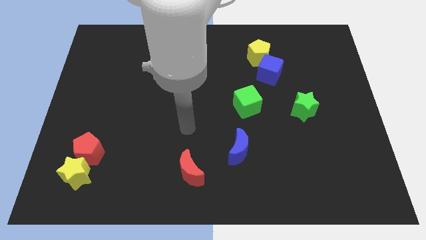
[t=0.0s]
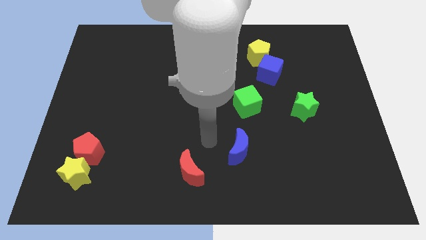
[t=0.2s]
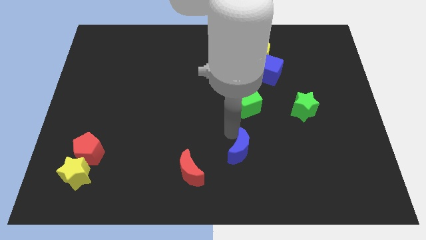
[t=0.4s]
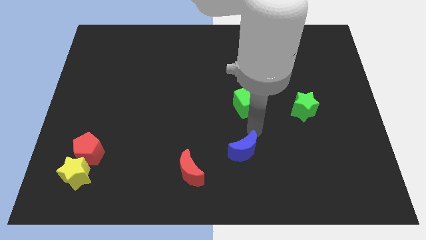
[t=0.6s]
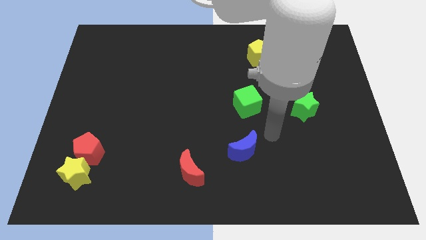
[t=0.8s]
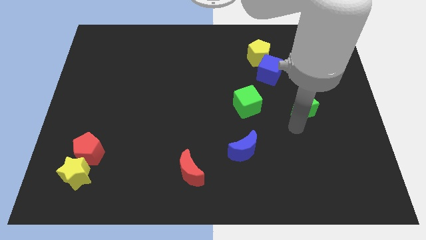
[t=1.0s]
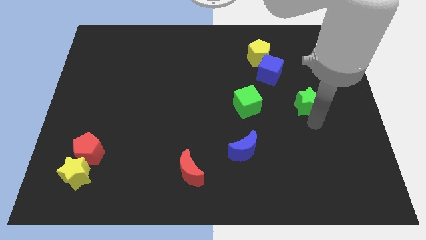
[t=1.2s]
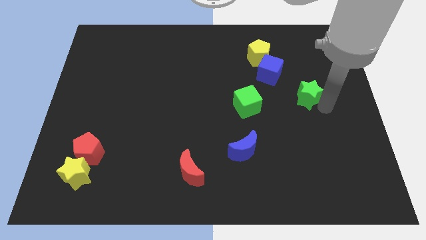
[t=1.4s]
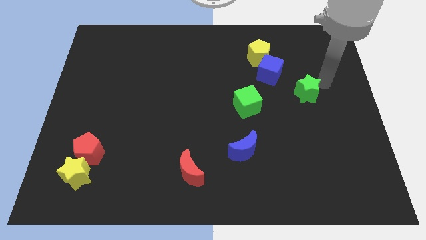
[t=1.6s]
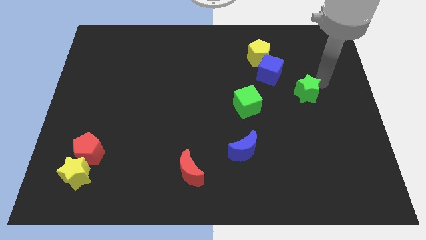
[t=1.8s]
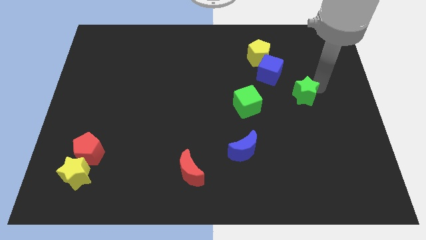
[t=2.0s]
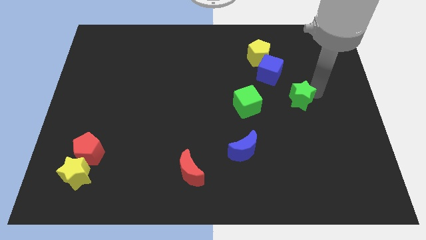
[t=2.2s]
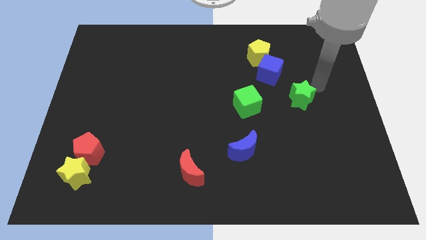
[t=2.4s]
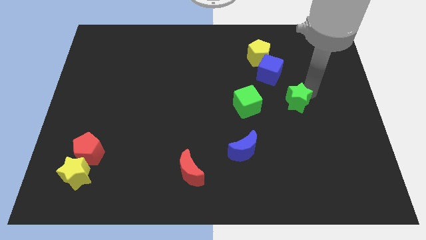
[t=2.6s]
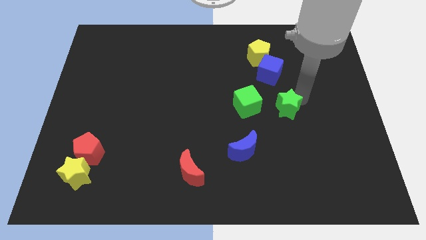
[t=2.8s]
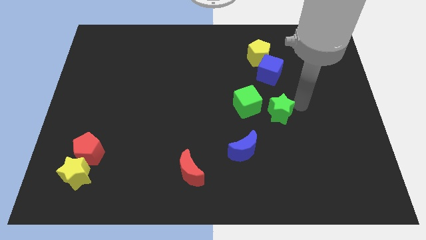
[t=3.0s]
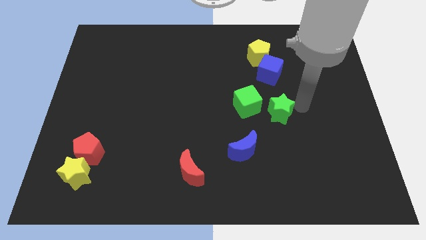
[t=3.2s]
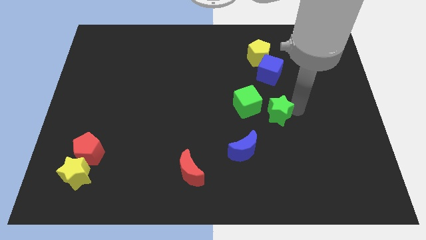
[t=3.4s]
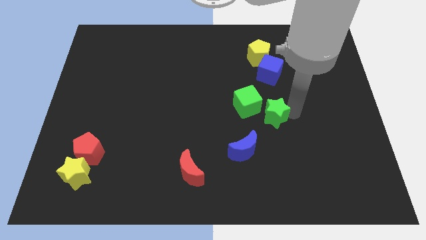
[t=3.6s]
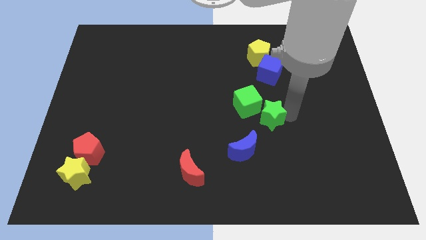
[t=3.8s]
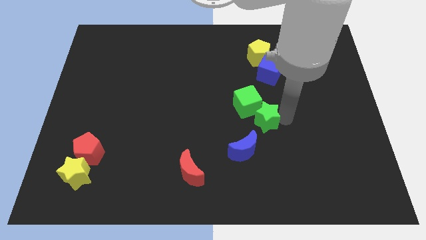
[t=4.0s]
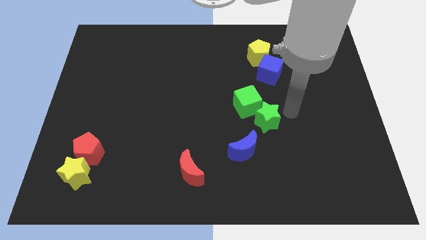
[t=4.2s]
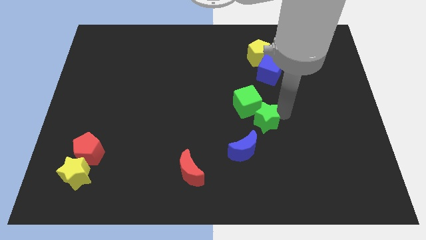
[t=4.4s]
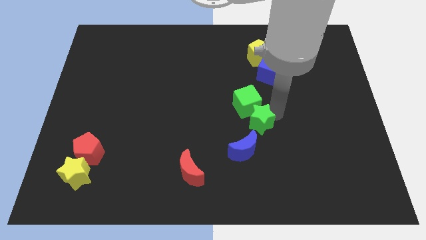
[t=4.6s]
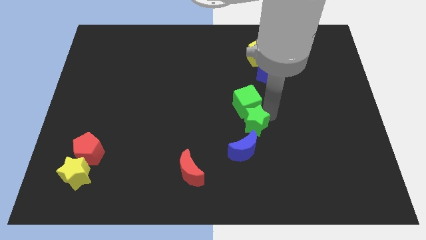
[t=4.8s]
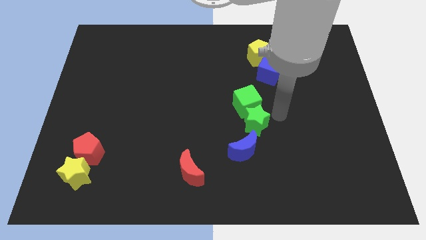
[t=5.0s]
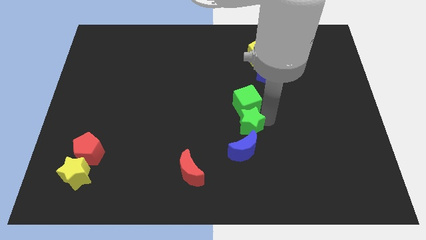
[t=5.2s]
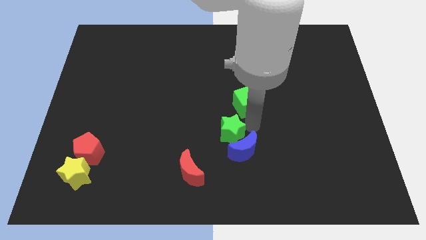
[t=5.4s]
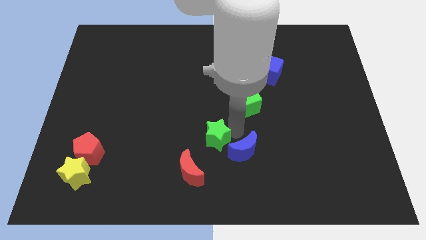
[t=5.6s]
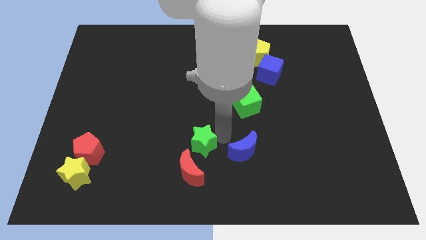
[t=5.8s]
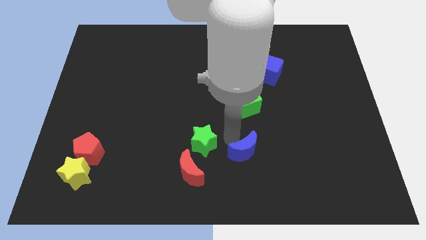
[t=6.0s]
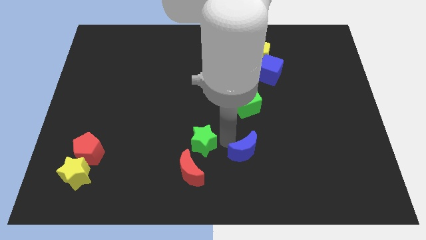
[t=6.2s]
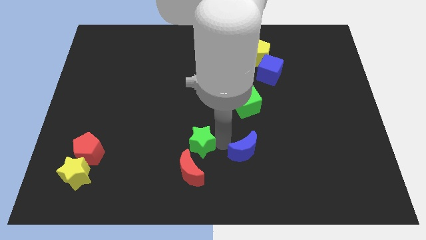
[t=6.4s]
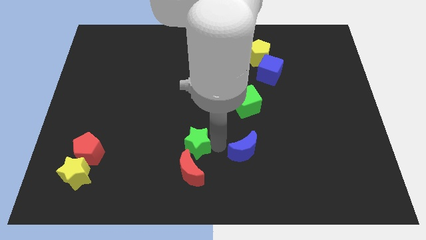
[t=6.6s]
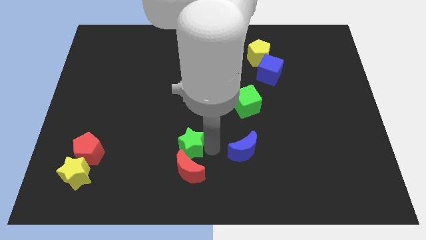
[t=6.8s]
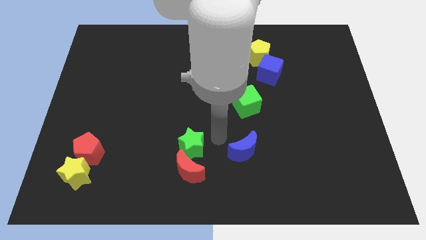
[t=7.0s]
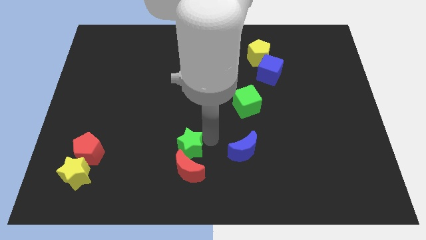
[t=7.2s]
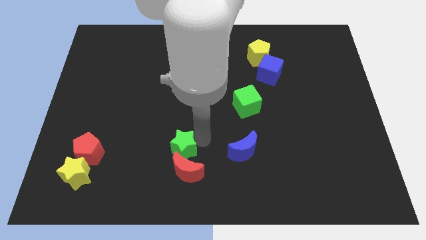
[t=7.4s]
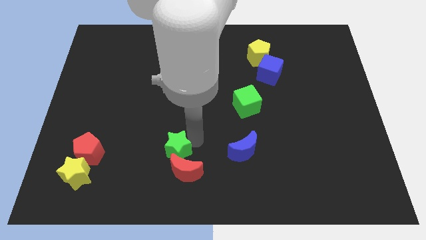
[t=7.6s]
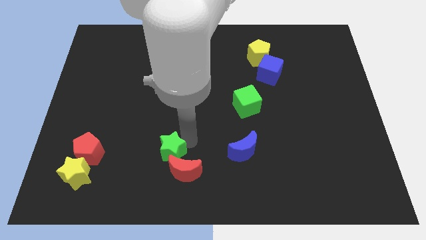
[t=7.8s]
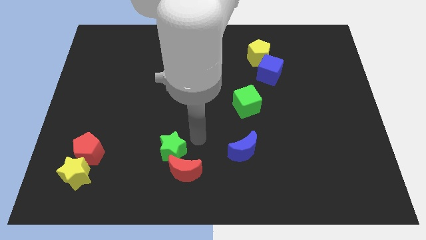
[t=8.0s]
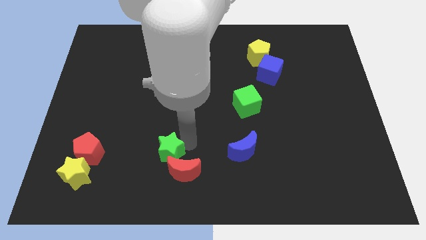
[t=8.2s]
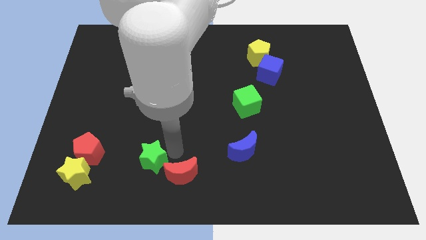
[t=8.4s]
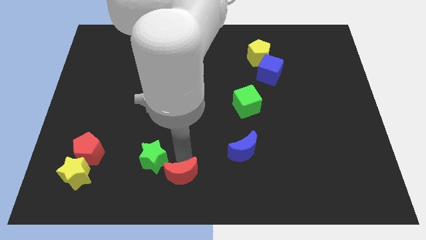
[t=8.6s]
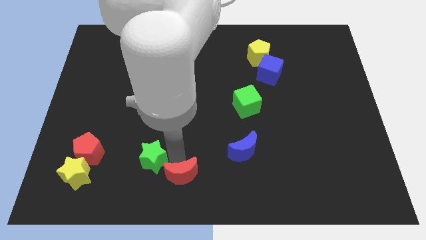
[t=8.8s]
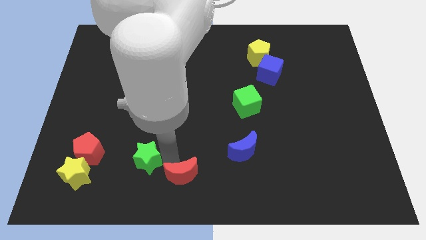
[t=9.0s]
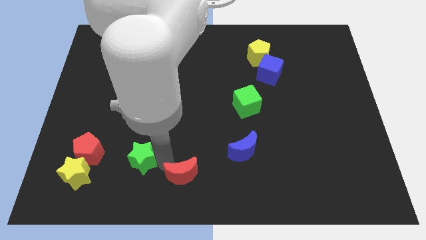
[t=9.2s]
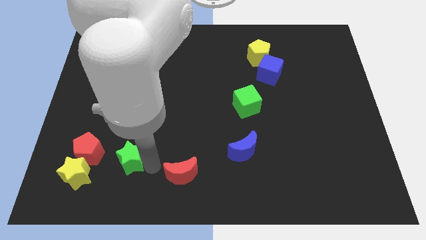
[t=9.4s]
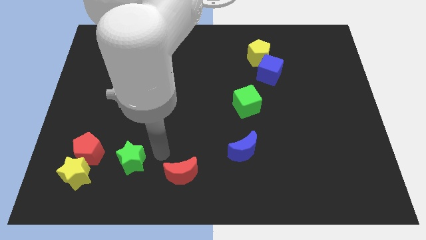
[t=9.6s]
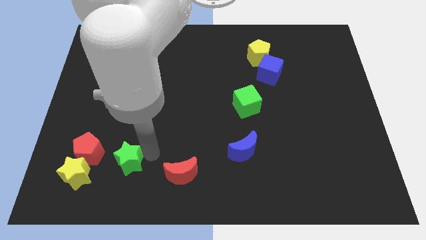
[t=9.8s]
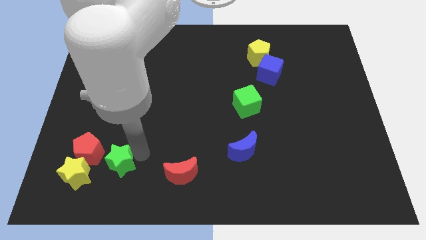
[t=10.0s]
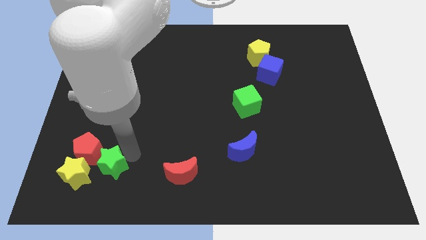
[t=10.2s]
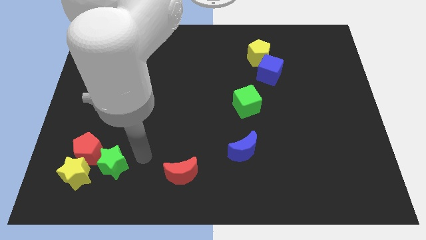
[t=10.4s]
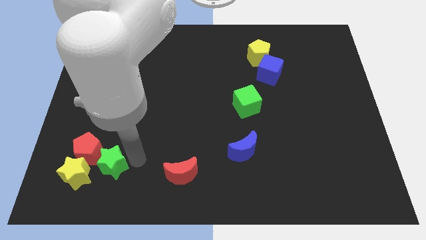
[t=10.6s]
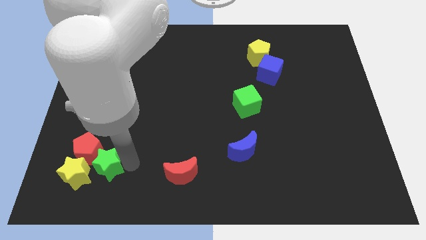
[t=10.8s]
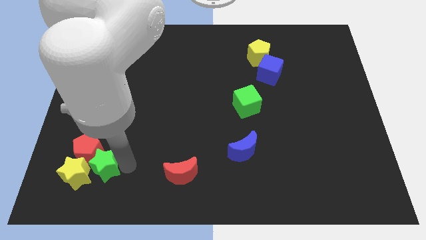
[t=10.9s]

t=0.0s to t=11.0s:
push the green star close to the yellow star

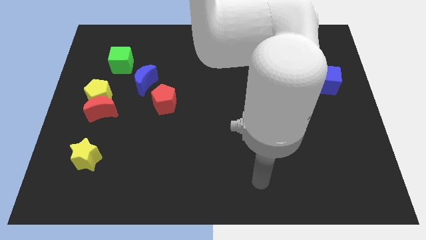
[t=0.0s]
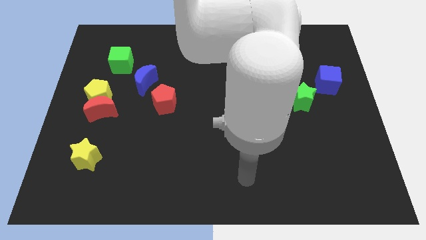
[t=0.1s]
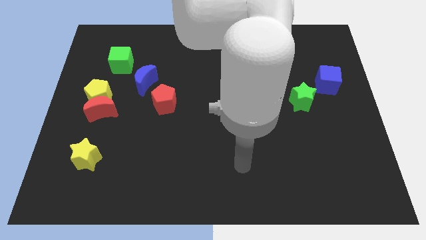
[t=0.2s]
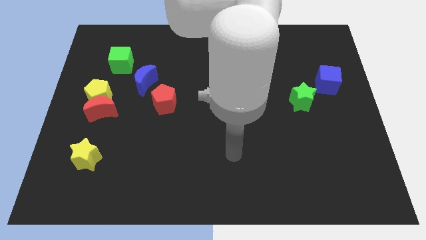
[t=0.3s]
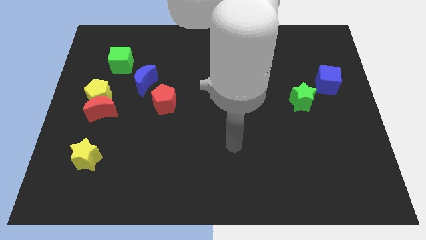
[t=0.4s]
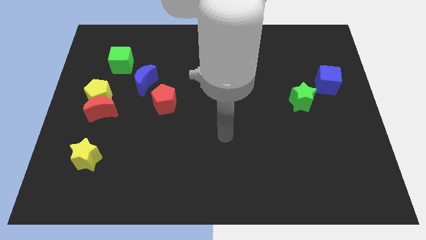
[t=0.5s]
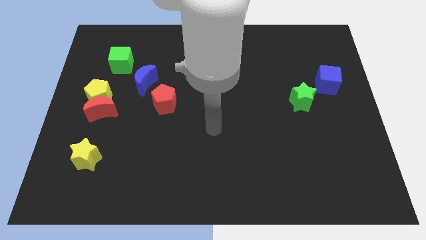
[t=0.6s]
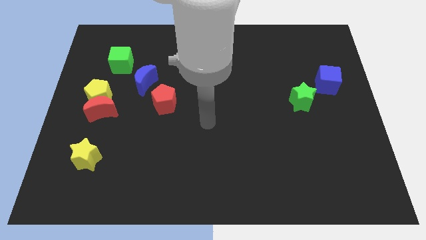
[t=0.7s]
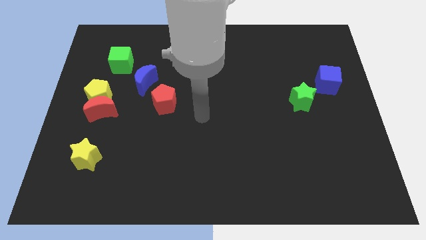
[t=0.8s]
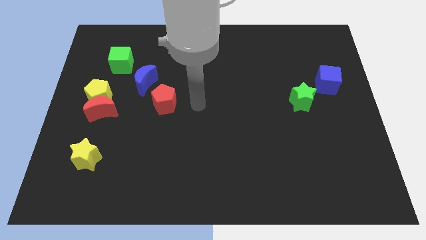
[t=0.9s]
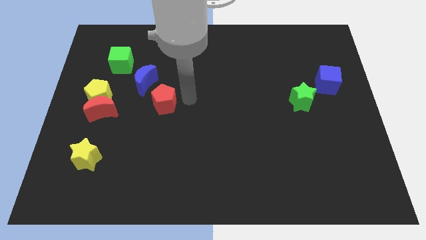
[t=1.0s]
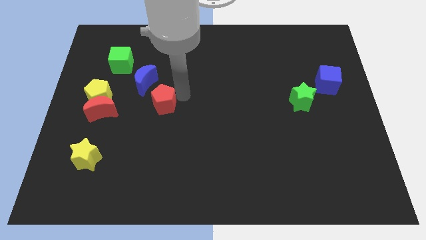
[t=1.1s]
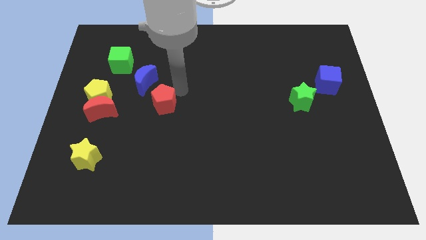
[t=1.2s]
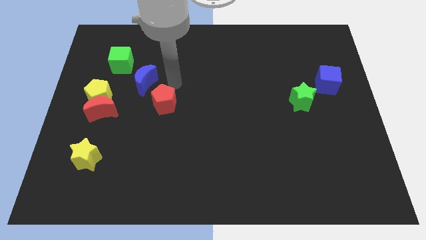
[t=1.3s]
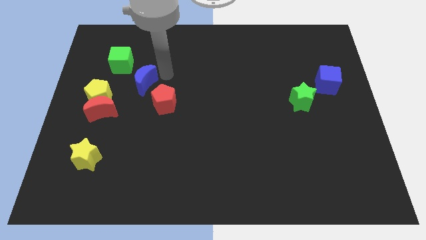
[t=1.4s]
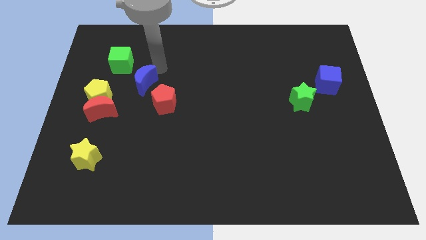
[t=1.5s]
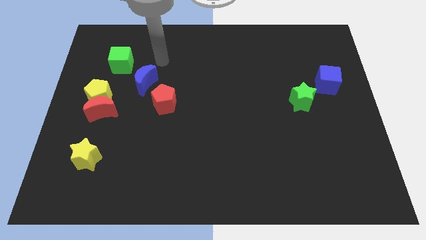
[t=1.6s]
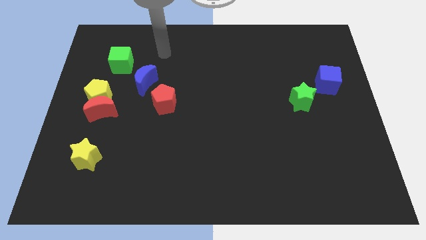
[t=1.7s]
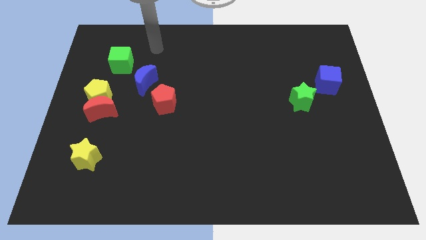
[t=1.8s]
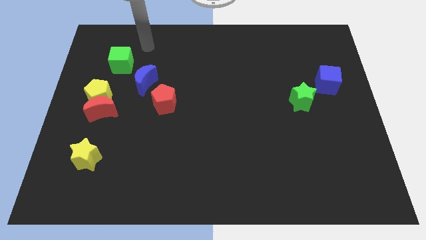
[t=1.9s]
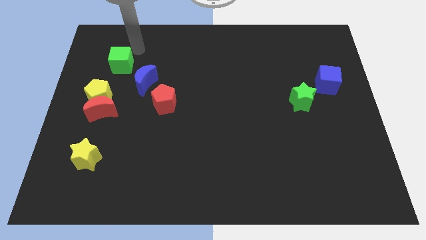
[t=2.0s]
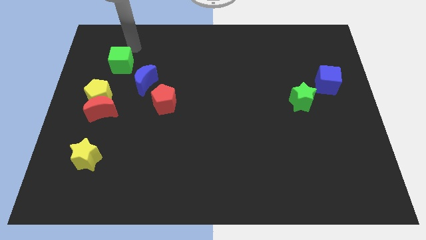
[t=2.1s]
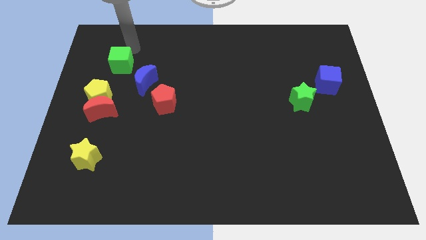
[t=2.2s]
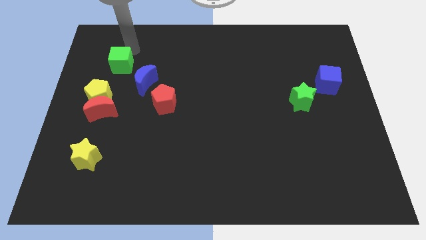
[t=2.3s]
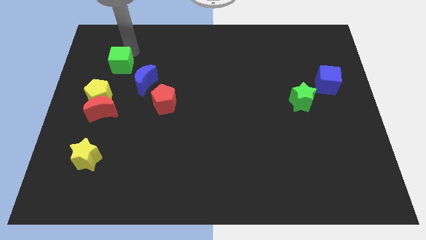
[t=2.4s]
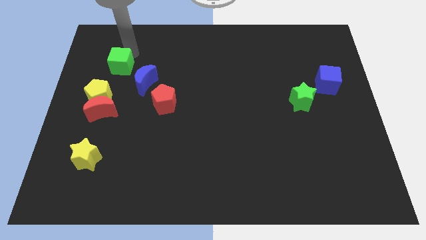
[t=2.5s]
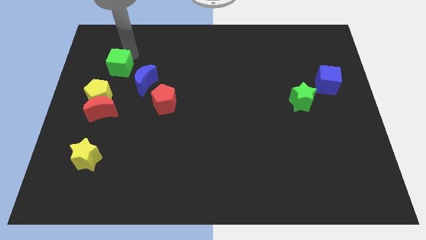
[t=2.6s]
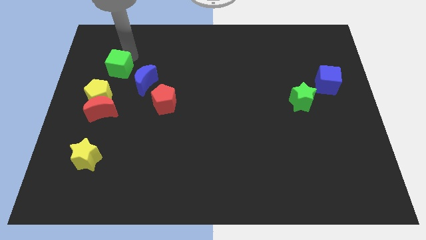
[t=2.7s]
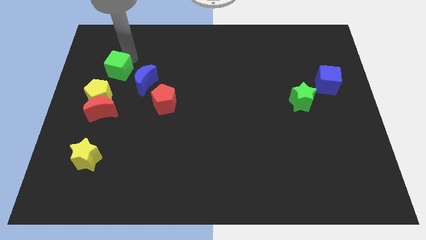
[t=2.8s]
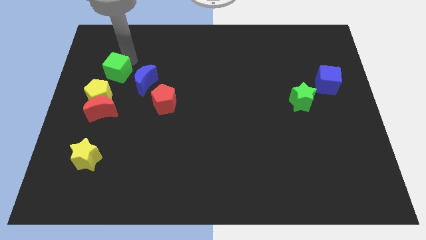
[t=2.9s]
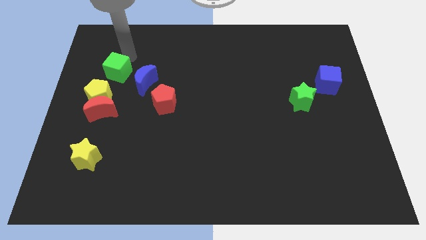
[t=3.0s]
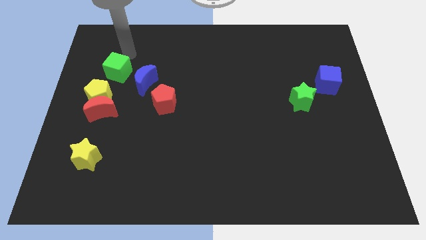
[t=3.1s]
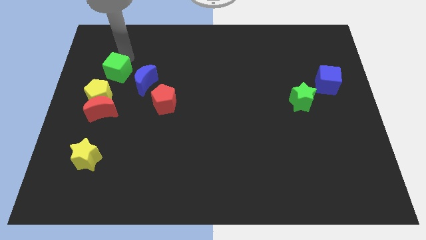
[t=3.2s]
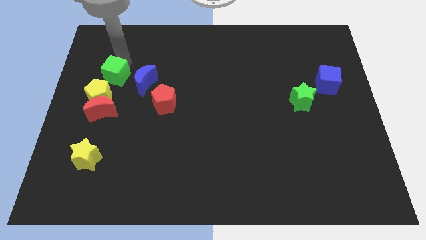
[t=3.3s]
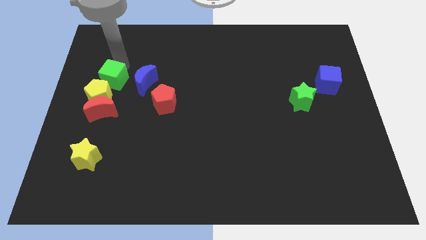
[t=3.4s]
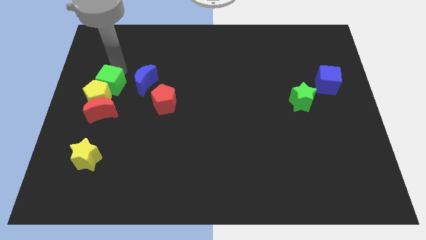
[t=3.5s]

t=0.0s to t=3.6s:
put the green cube close to the yellow pentagon
